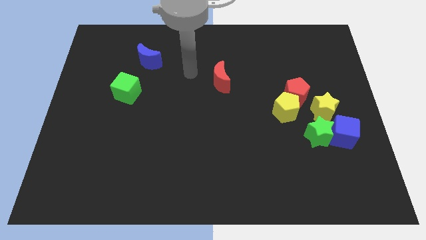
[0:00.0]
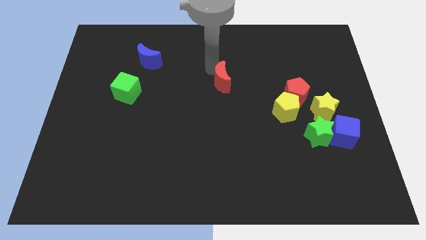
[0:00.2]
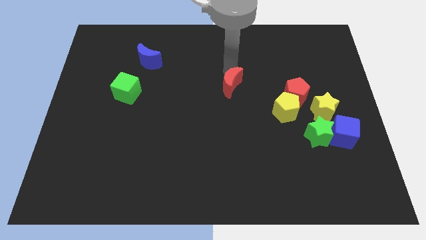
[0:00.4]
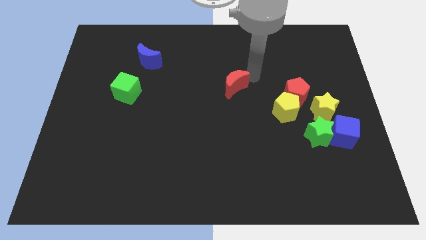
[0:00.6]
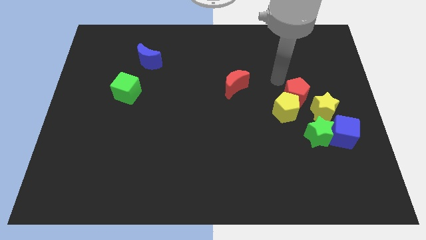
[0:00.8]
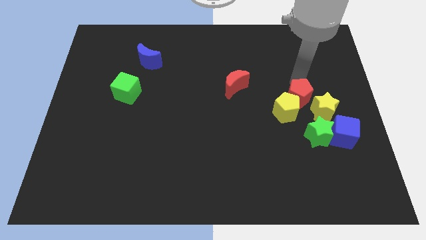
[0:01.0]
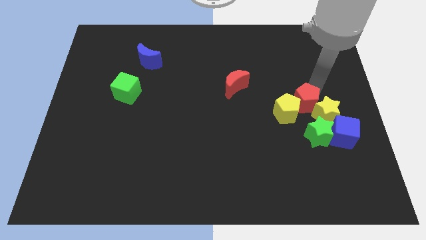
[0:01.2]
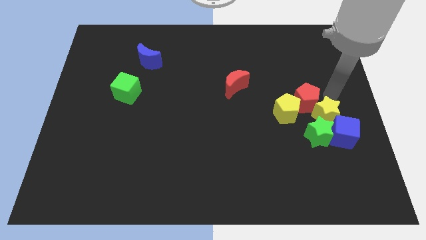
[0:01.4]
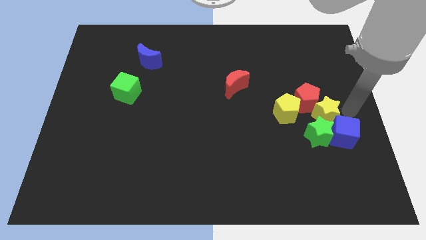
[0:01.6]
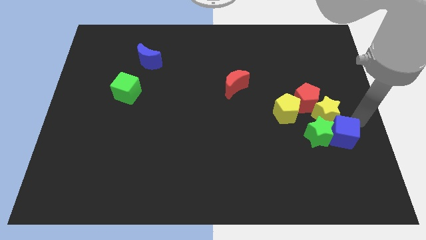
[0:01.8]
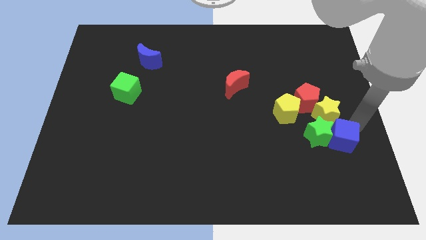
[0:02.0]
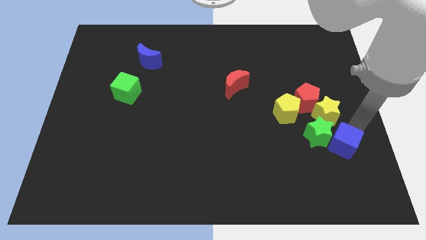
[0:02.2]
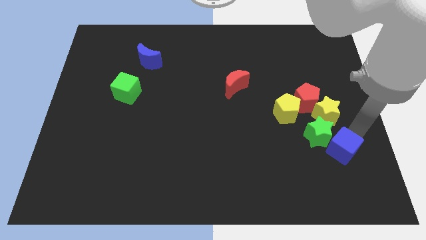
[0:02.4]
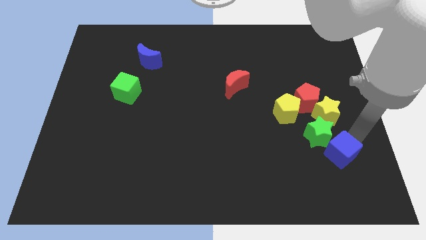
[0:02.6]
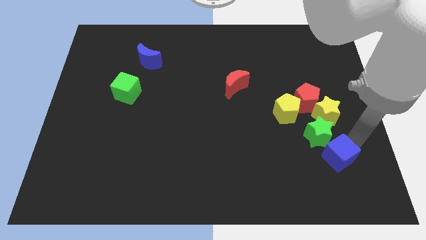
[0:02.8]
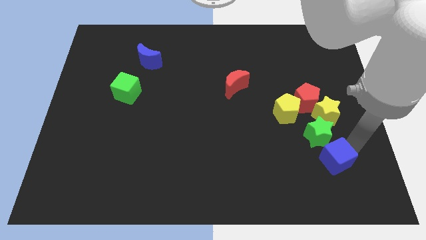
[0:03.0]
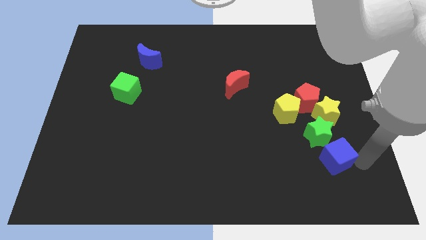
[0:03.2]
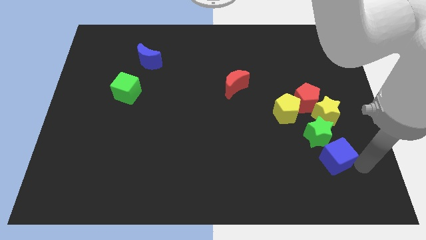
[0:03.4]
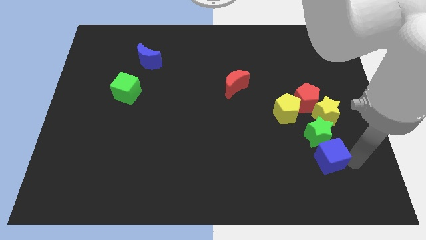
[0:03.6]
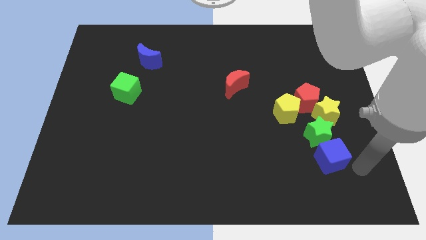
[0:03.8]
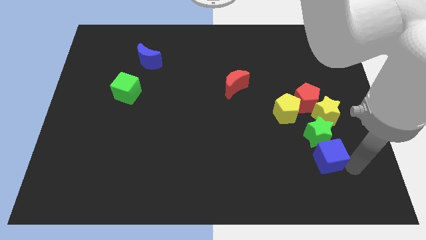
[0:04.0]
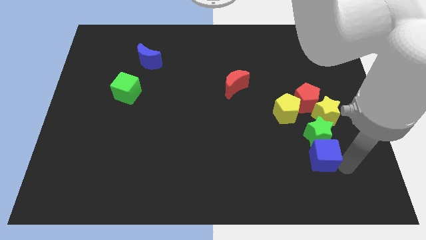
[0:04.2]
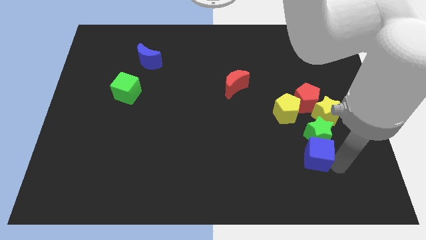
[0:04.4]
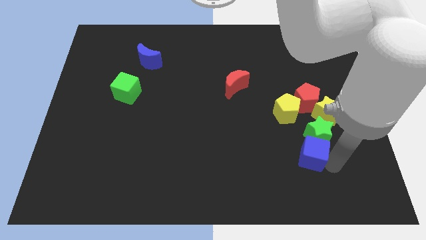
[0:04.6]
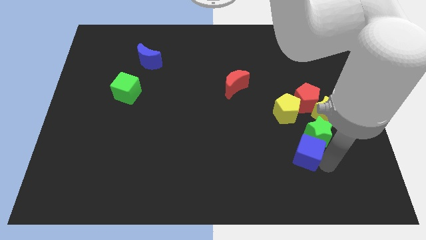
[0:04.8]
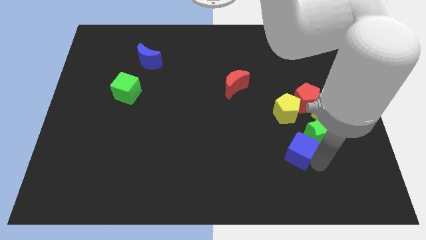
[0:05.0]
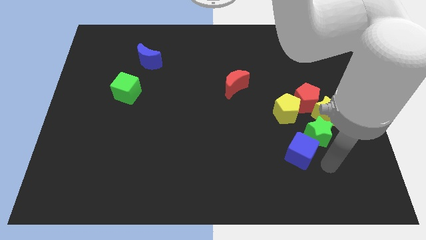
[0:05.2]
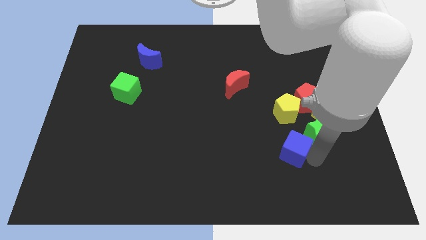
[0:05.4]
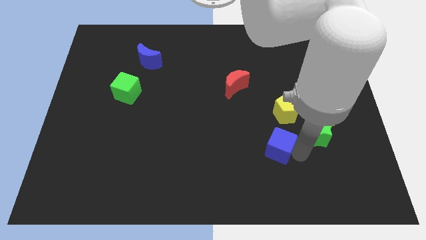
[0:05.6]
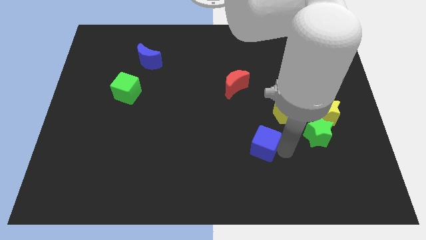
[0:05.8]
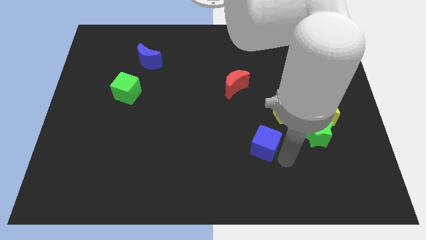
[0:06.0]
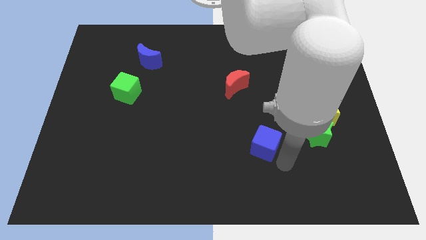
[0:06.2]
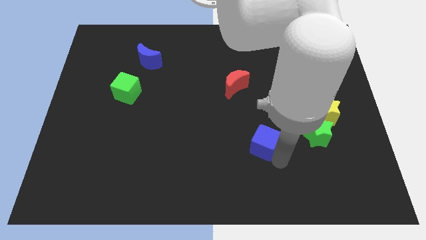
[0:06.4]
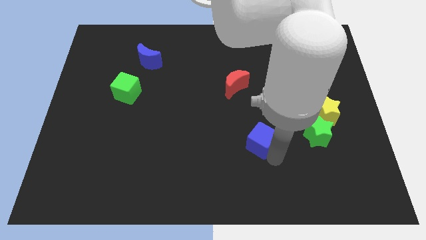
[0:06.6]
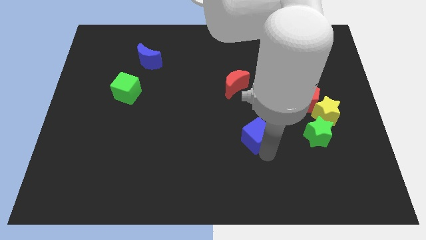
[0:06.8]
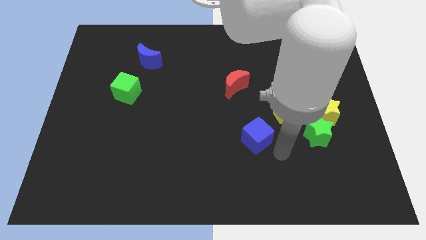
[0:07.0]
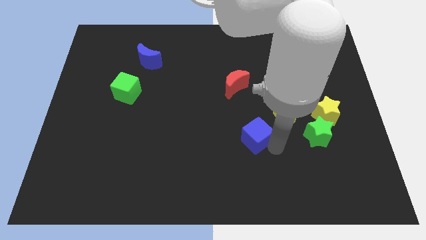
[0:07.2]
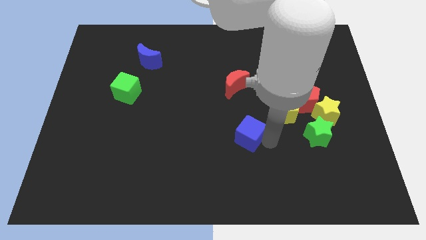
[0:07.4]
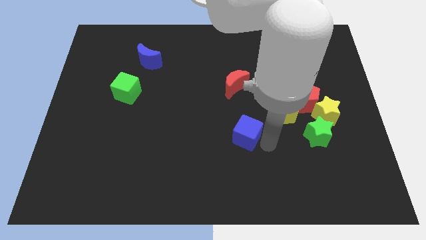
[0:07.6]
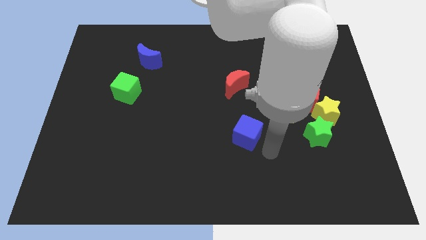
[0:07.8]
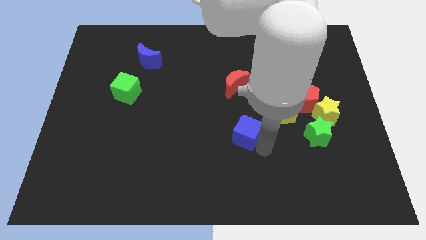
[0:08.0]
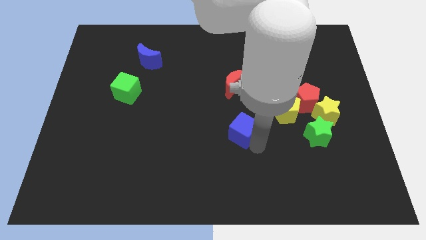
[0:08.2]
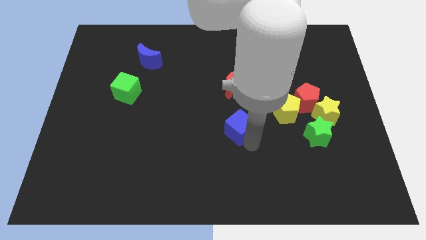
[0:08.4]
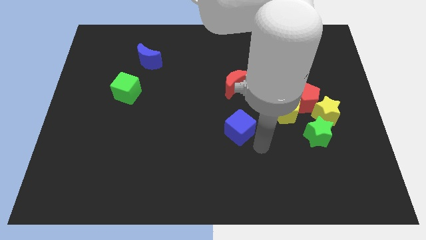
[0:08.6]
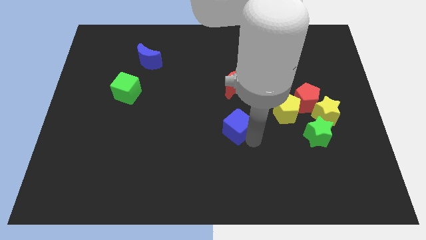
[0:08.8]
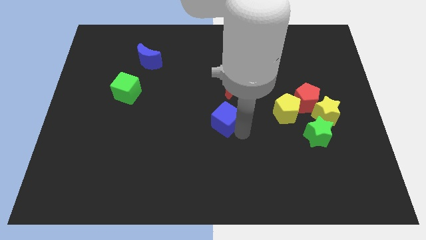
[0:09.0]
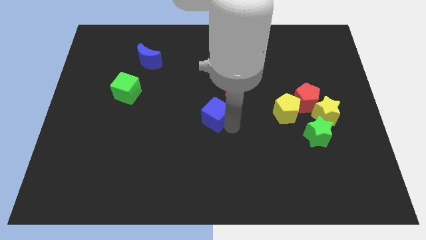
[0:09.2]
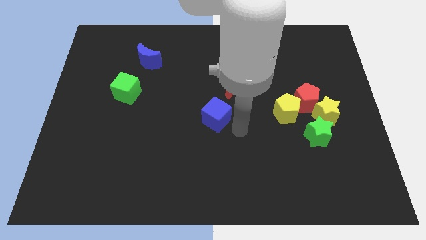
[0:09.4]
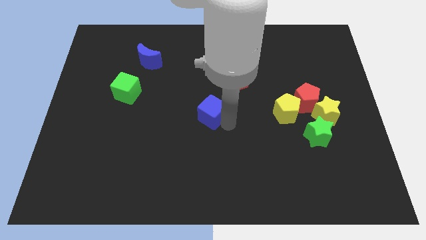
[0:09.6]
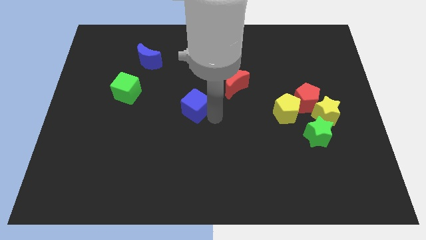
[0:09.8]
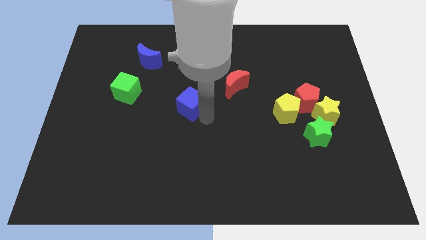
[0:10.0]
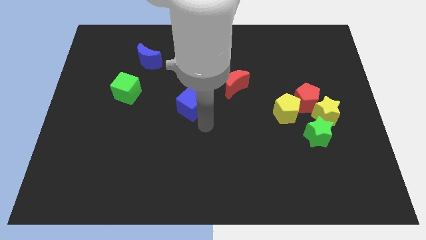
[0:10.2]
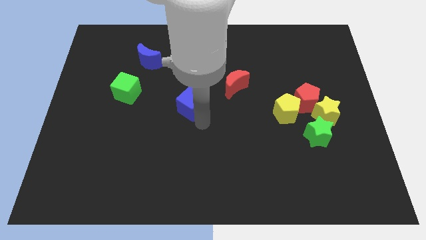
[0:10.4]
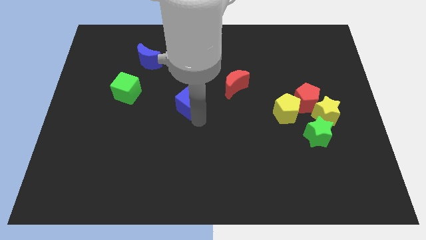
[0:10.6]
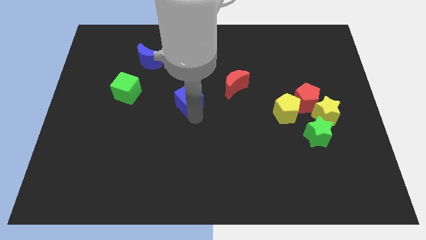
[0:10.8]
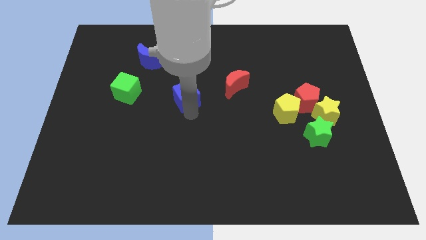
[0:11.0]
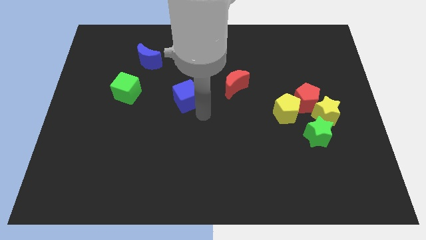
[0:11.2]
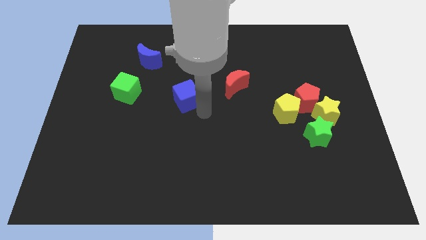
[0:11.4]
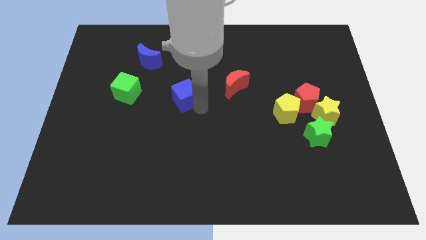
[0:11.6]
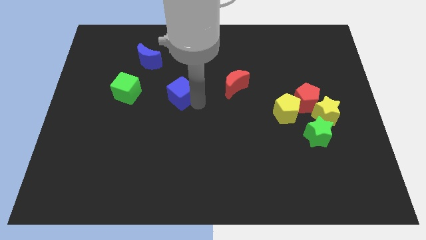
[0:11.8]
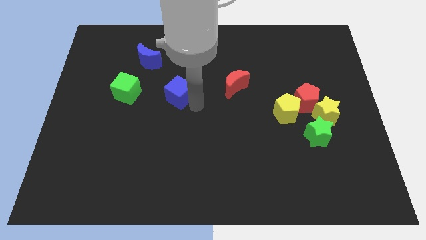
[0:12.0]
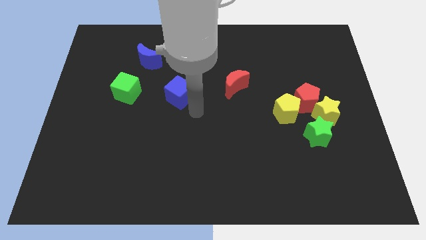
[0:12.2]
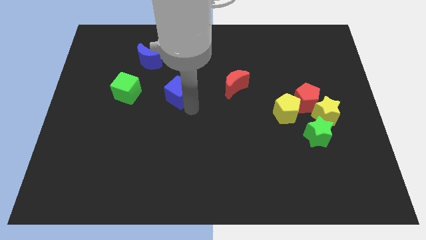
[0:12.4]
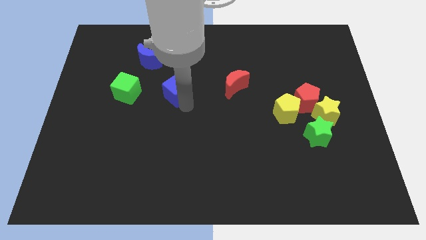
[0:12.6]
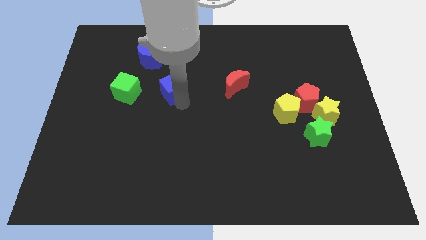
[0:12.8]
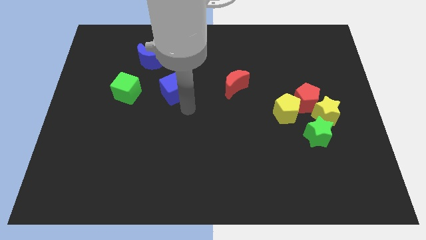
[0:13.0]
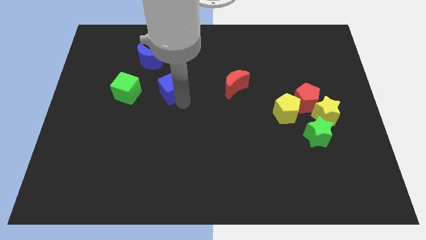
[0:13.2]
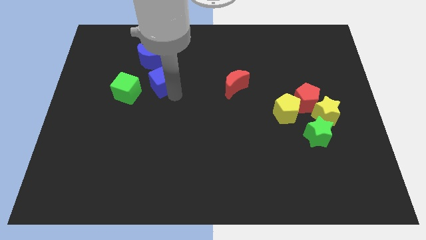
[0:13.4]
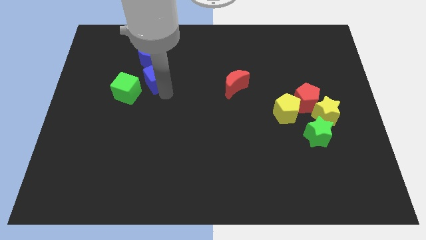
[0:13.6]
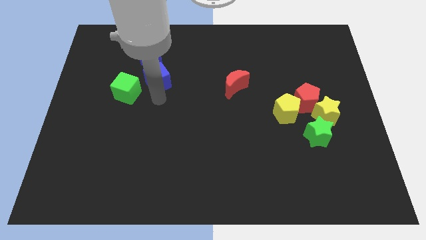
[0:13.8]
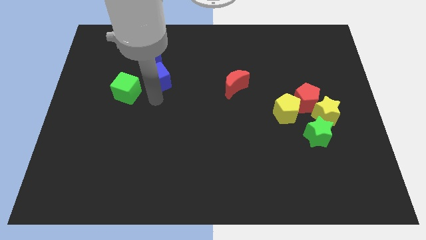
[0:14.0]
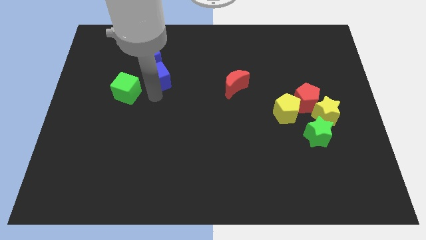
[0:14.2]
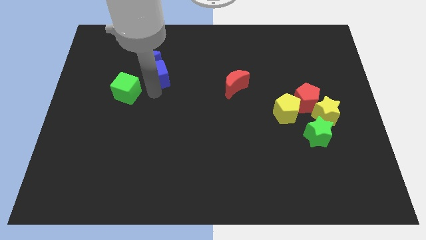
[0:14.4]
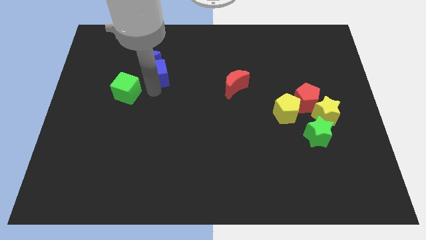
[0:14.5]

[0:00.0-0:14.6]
push the blue cube close to the blue moon
